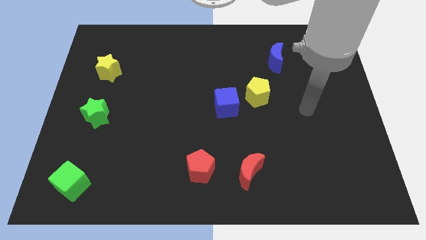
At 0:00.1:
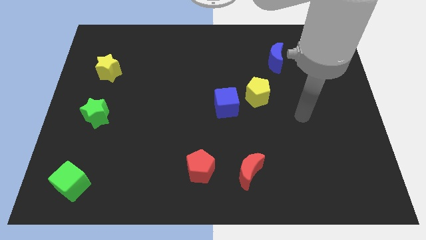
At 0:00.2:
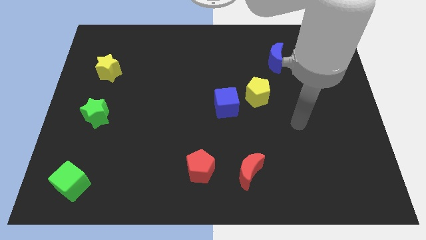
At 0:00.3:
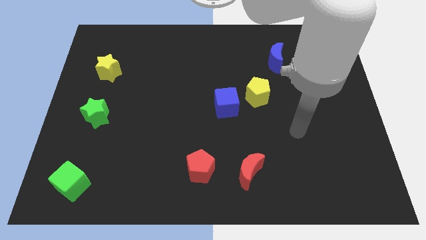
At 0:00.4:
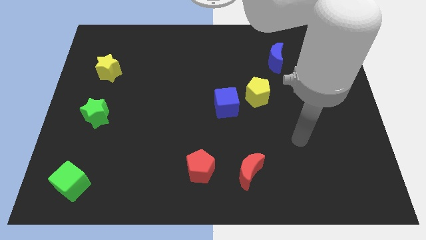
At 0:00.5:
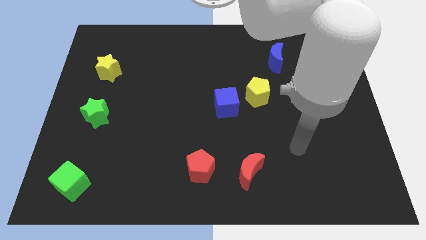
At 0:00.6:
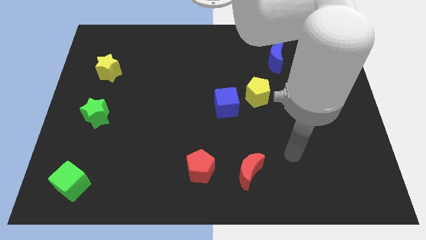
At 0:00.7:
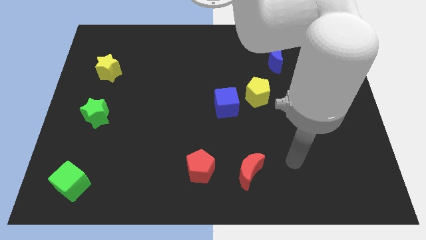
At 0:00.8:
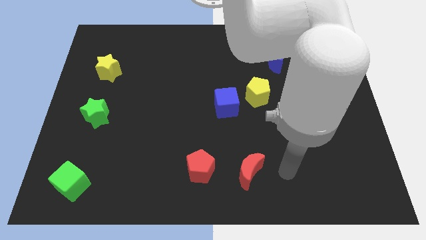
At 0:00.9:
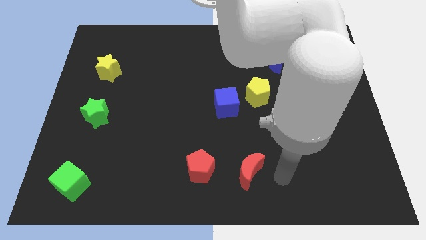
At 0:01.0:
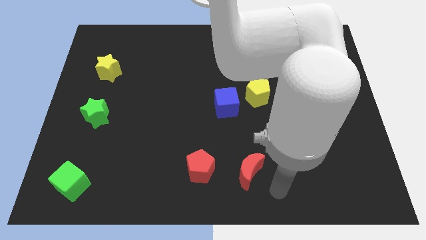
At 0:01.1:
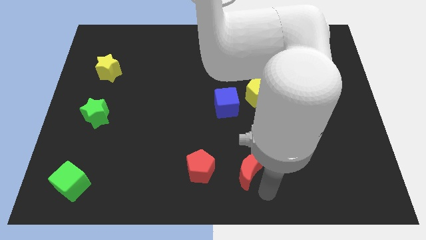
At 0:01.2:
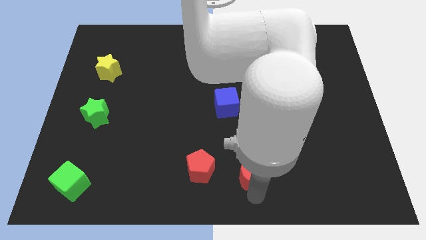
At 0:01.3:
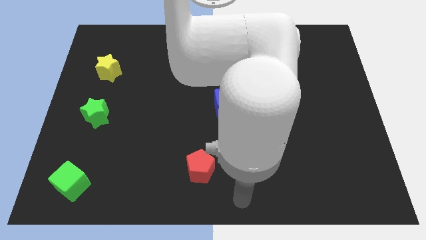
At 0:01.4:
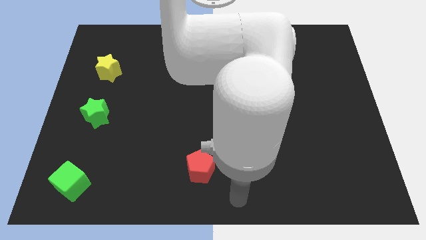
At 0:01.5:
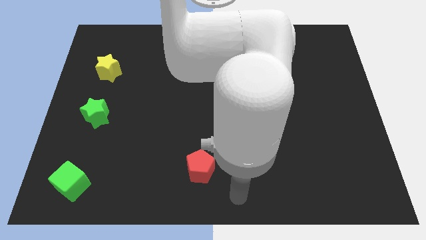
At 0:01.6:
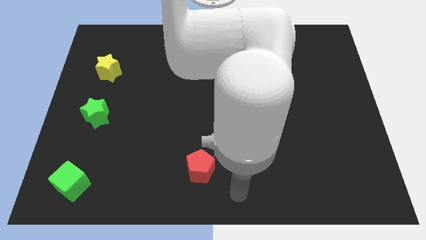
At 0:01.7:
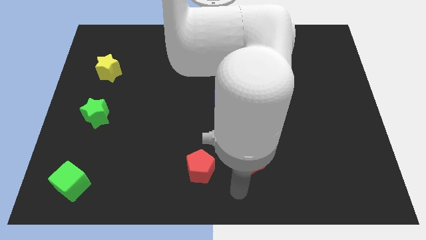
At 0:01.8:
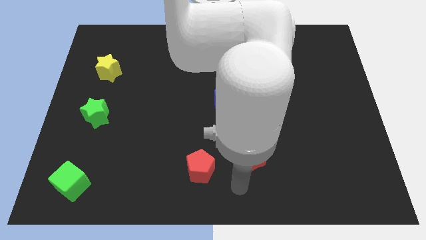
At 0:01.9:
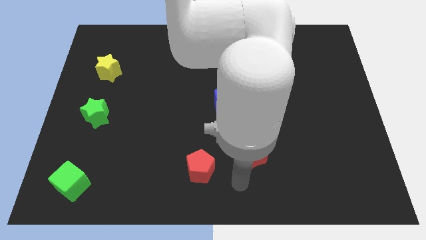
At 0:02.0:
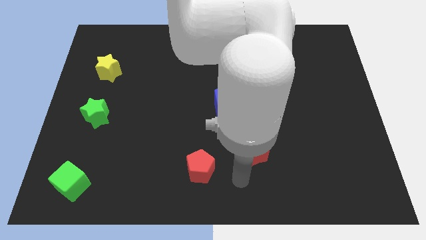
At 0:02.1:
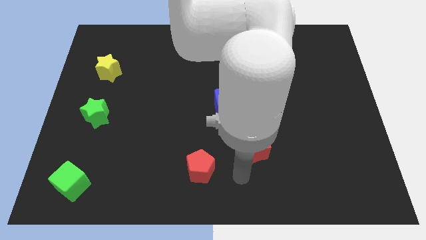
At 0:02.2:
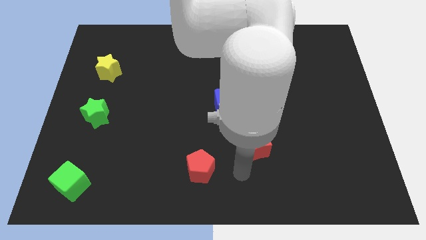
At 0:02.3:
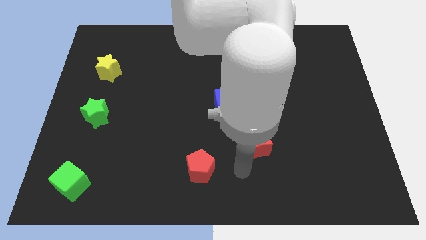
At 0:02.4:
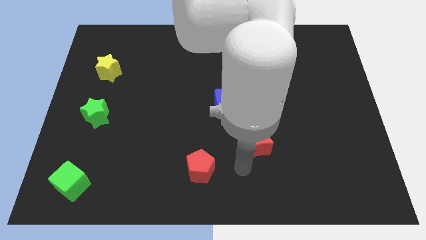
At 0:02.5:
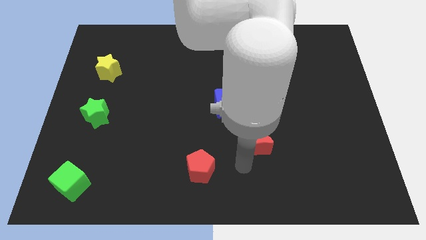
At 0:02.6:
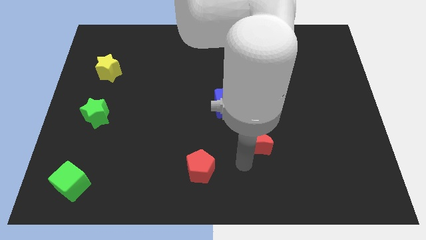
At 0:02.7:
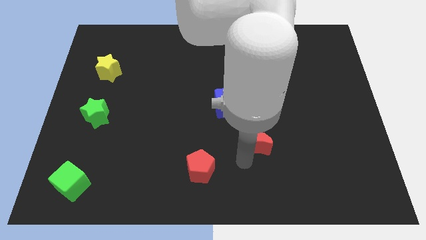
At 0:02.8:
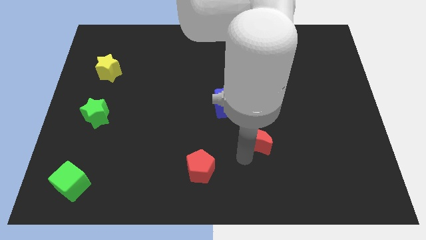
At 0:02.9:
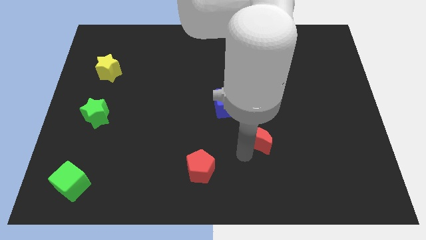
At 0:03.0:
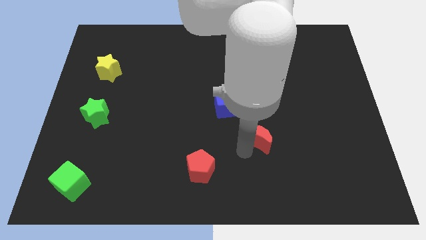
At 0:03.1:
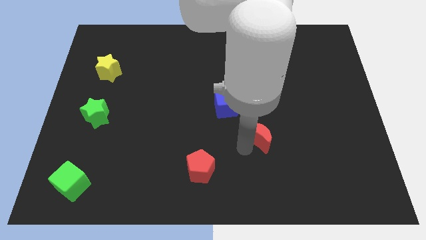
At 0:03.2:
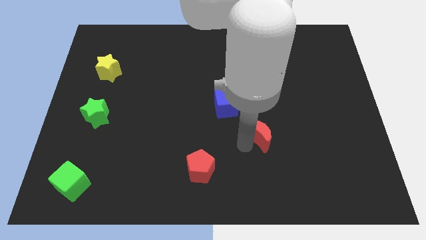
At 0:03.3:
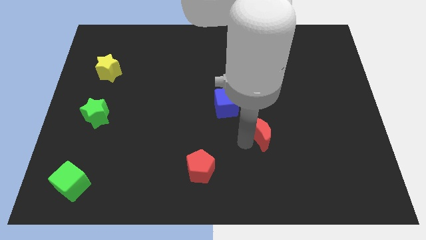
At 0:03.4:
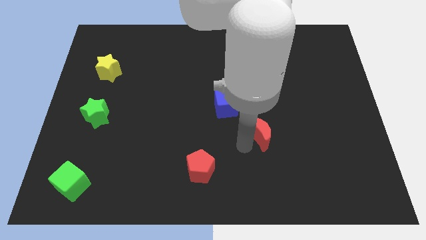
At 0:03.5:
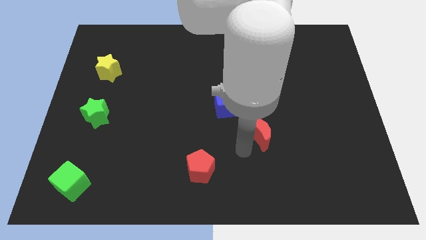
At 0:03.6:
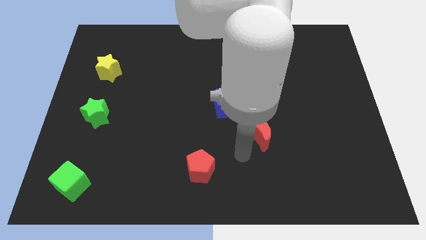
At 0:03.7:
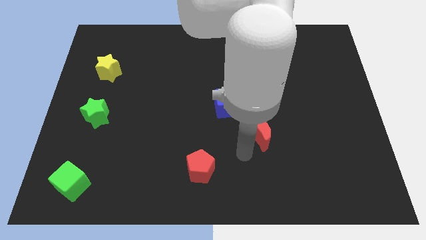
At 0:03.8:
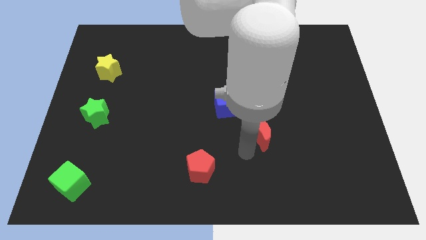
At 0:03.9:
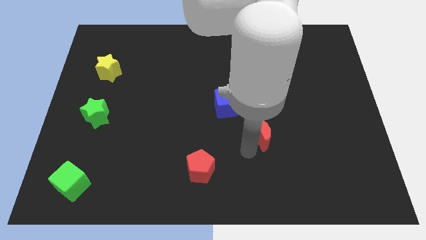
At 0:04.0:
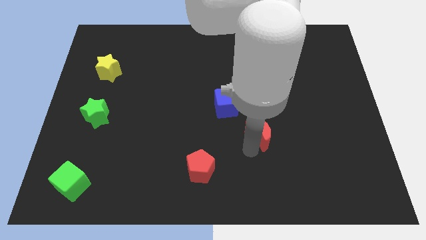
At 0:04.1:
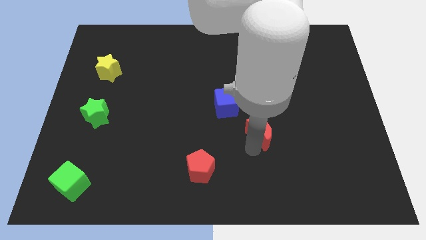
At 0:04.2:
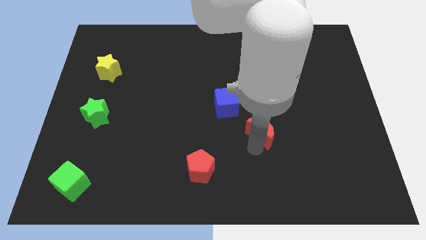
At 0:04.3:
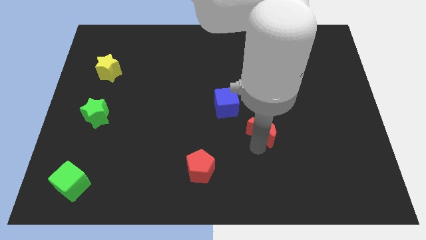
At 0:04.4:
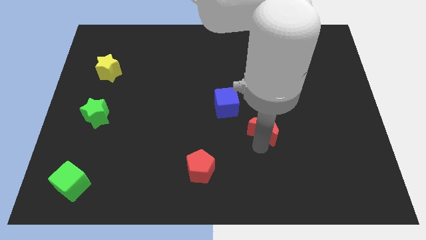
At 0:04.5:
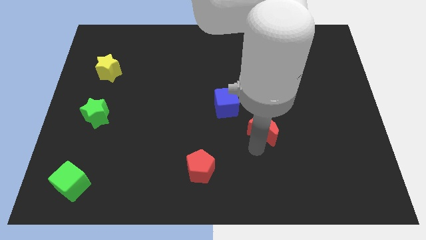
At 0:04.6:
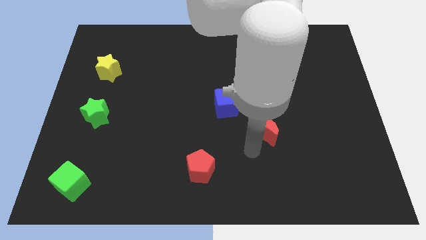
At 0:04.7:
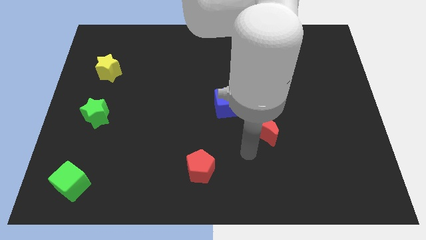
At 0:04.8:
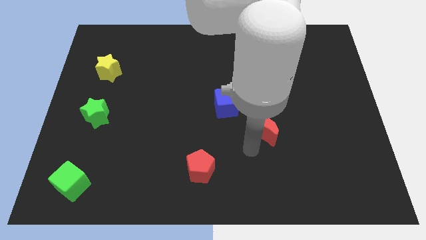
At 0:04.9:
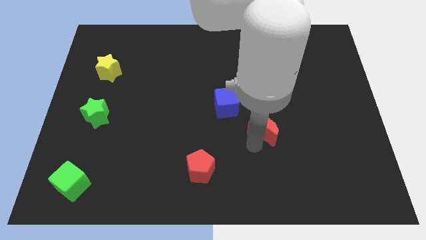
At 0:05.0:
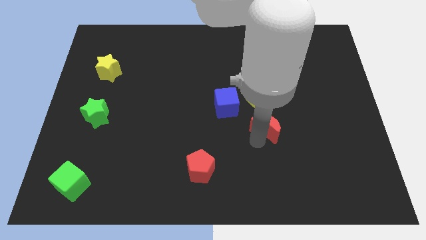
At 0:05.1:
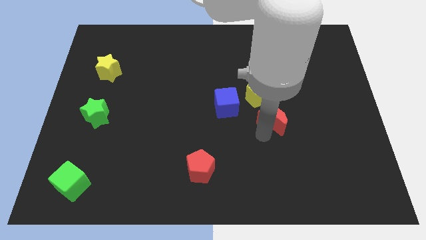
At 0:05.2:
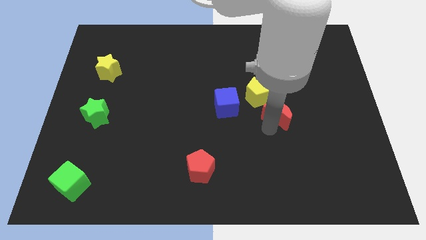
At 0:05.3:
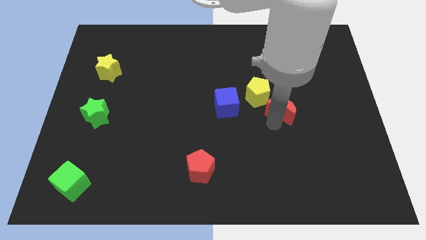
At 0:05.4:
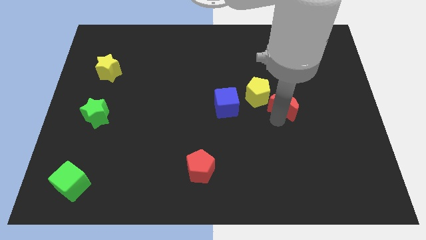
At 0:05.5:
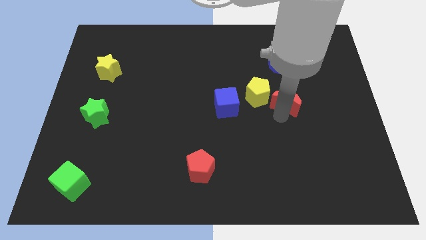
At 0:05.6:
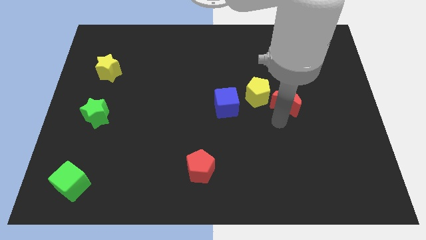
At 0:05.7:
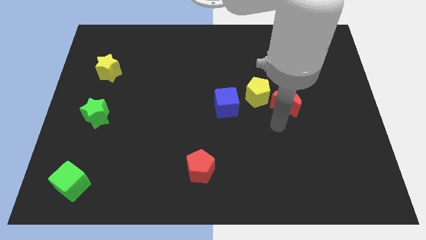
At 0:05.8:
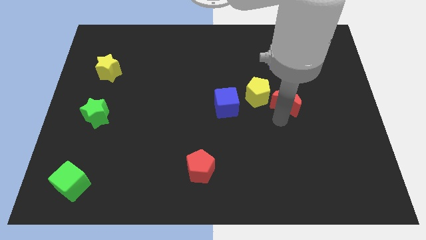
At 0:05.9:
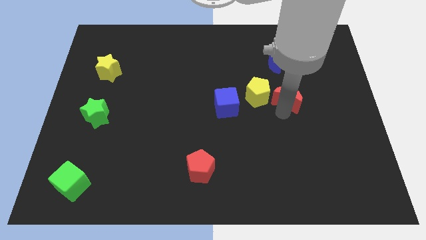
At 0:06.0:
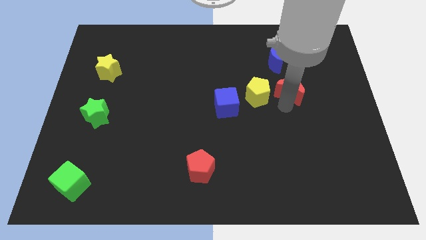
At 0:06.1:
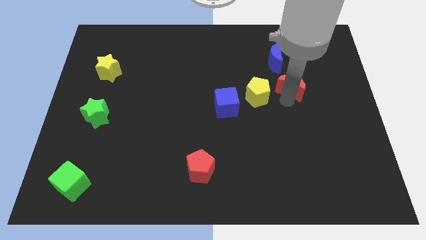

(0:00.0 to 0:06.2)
slide the red moon to the bottom right of the blue moon
